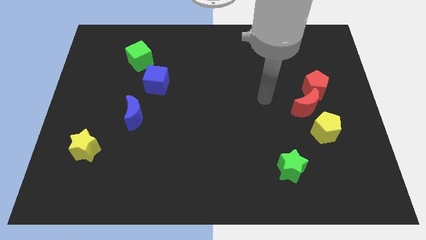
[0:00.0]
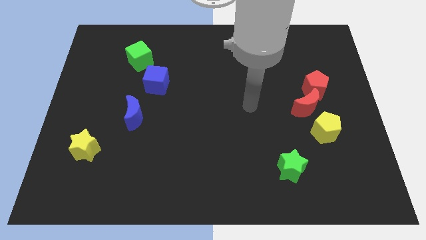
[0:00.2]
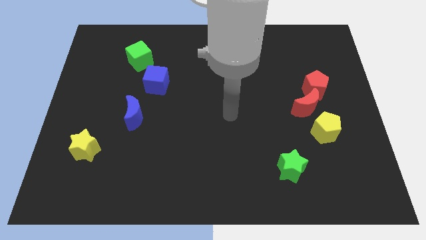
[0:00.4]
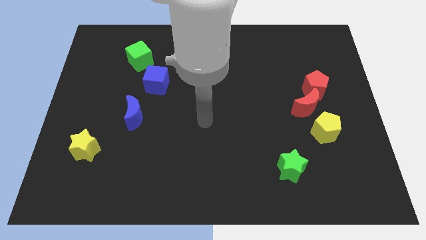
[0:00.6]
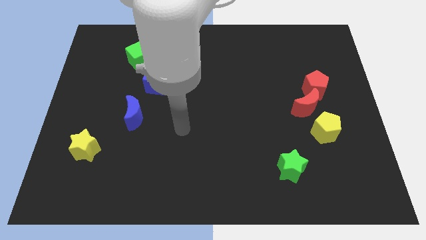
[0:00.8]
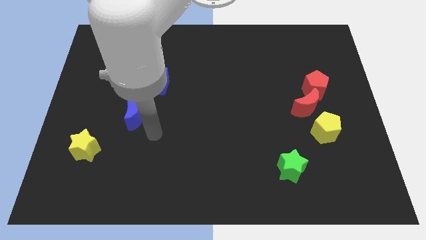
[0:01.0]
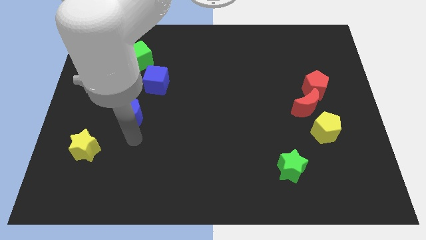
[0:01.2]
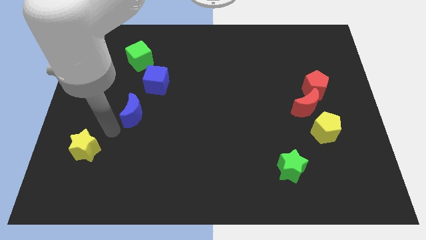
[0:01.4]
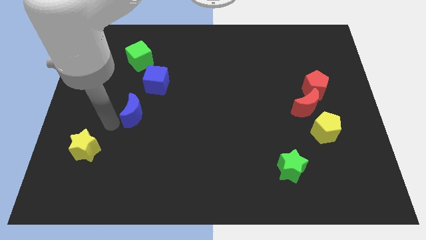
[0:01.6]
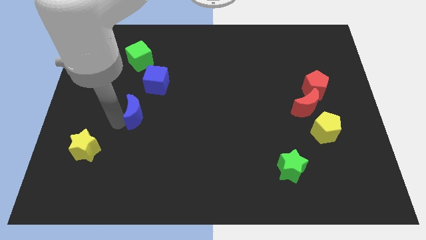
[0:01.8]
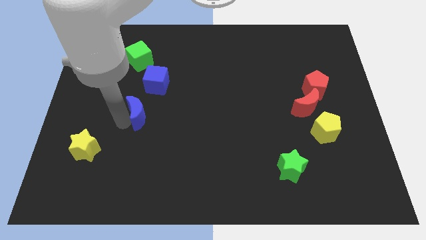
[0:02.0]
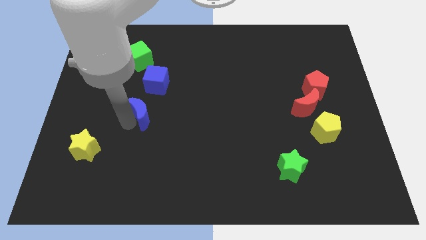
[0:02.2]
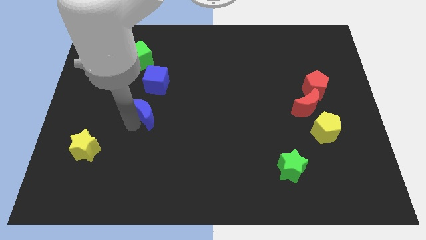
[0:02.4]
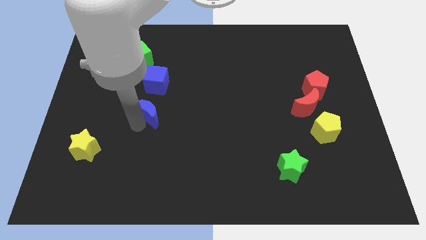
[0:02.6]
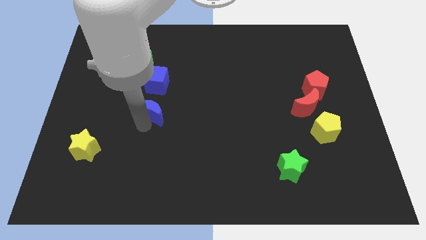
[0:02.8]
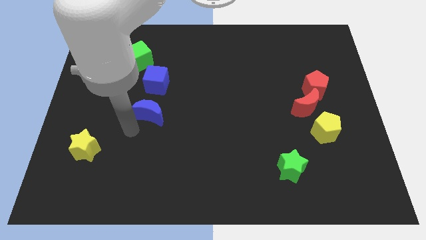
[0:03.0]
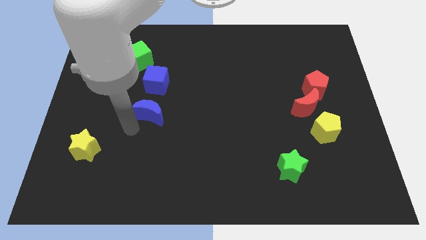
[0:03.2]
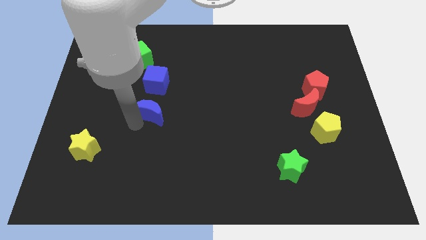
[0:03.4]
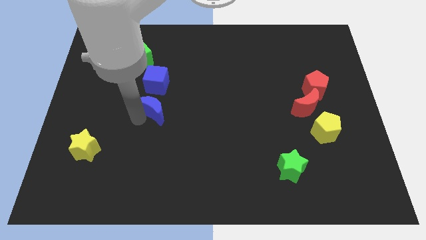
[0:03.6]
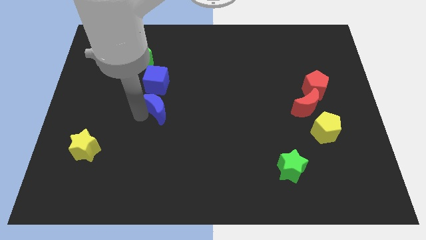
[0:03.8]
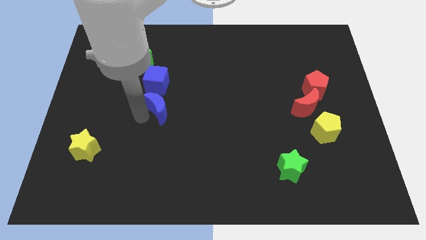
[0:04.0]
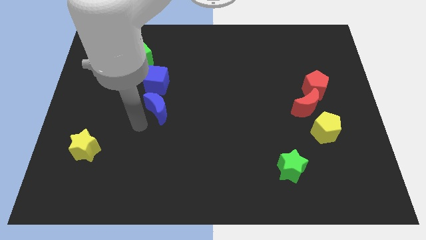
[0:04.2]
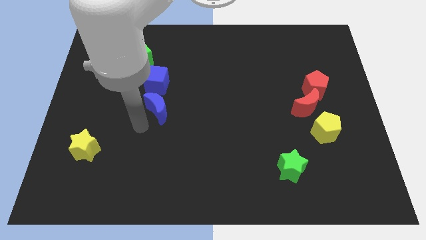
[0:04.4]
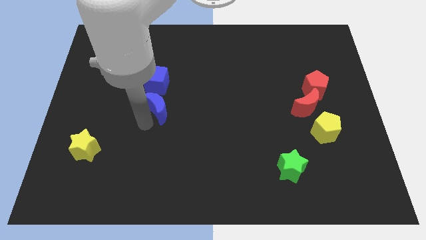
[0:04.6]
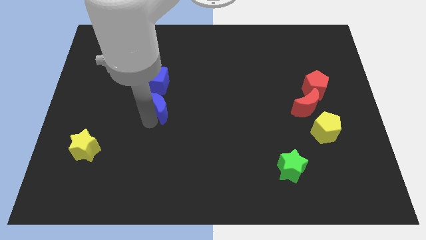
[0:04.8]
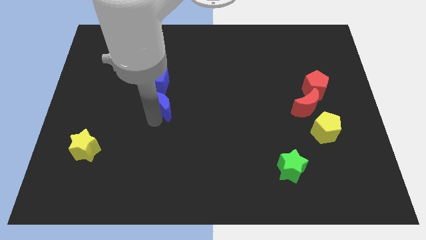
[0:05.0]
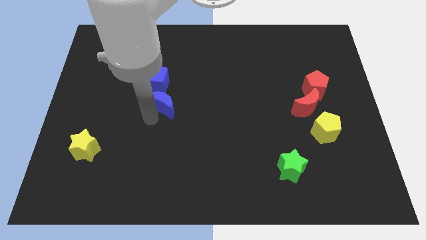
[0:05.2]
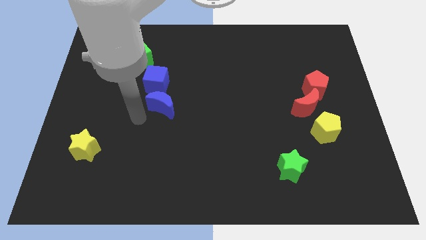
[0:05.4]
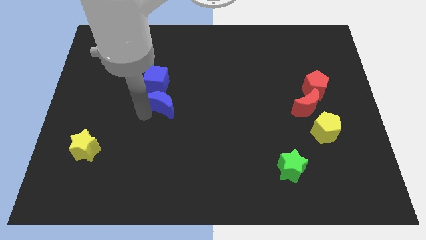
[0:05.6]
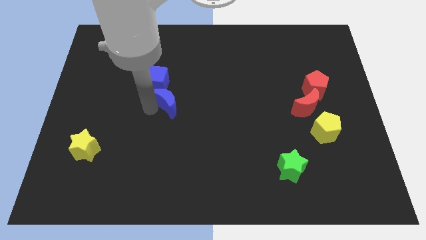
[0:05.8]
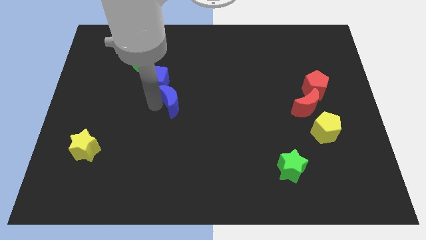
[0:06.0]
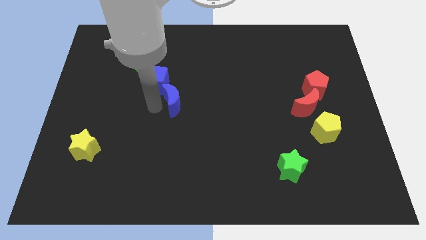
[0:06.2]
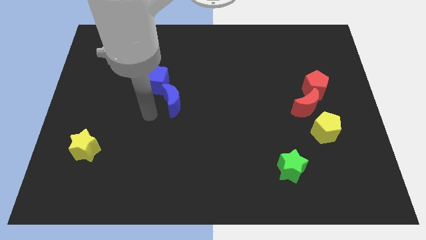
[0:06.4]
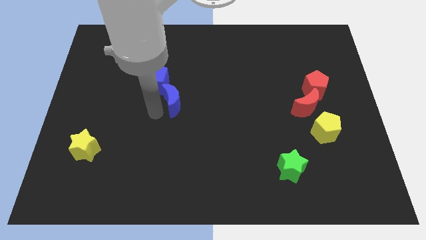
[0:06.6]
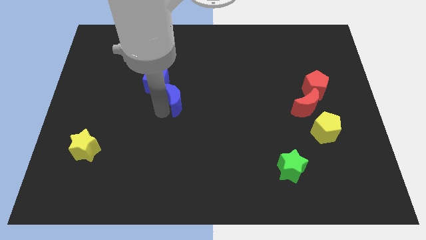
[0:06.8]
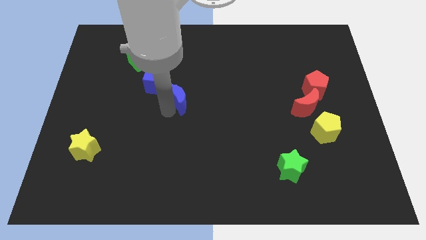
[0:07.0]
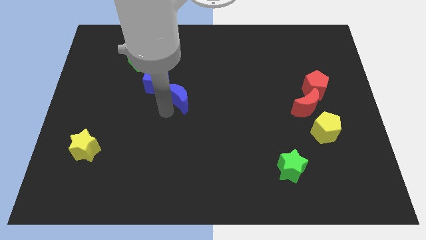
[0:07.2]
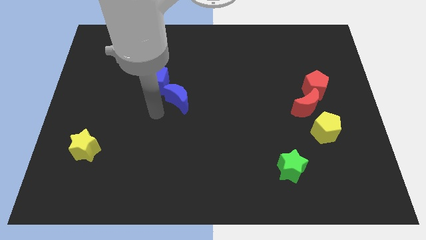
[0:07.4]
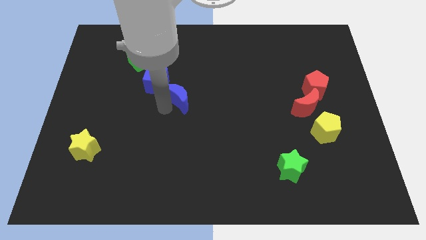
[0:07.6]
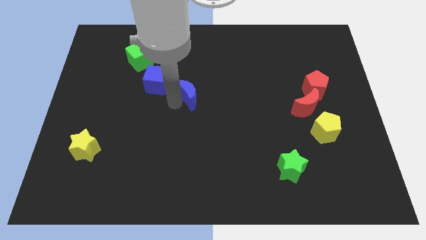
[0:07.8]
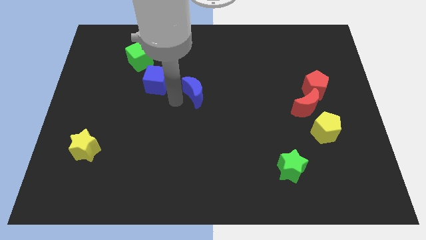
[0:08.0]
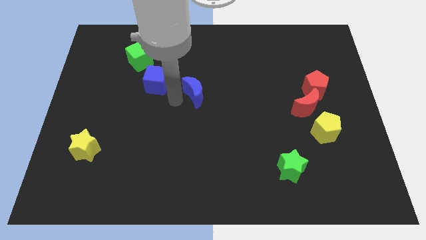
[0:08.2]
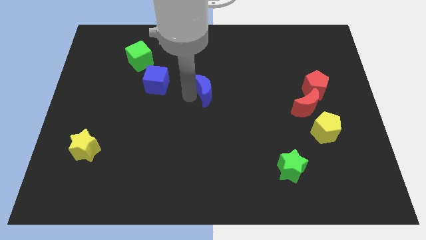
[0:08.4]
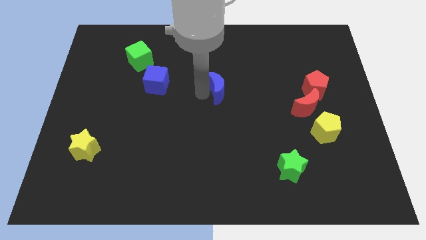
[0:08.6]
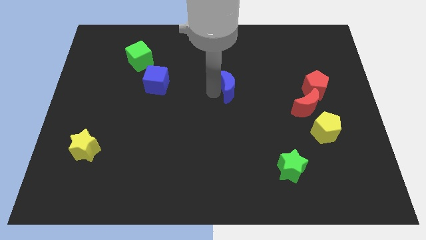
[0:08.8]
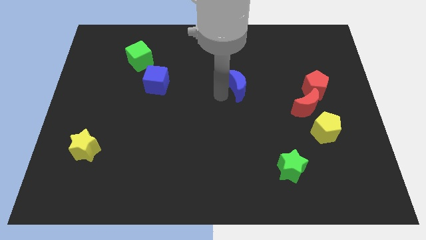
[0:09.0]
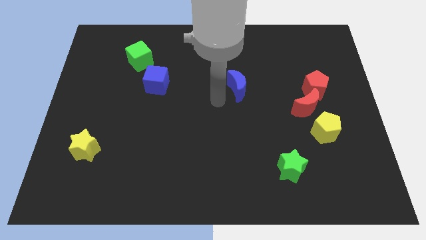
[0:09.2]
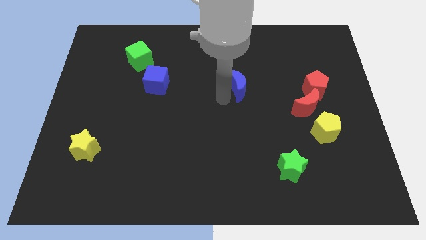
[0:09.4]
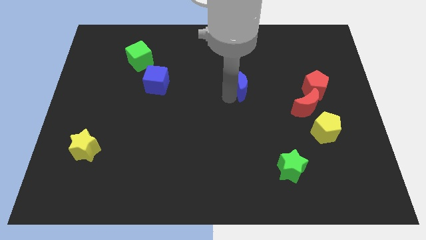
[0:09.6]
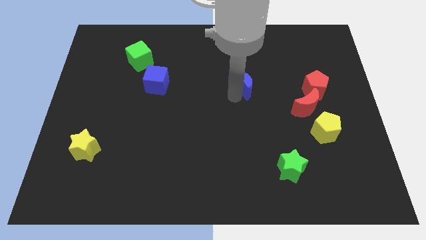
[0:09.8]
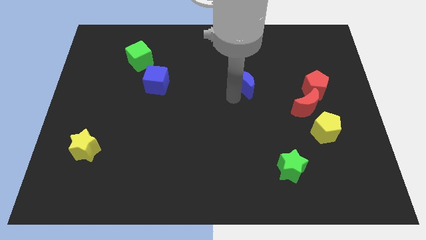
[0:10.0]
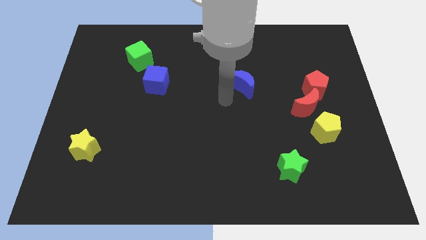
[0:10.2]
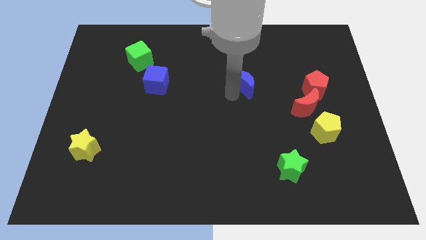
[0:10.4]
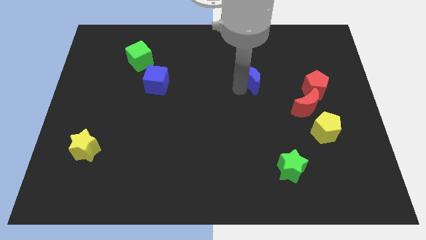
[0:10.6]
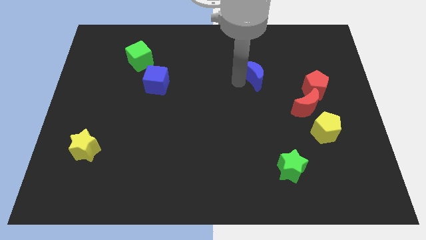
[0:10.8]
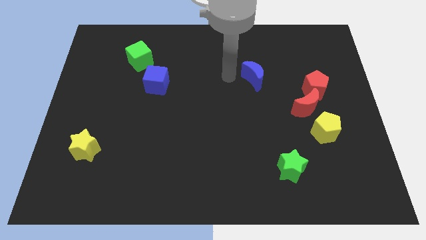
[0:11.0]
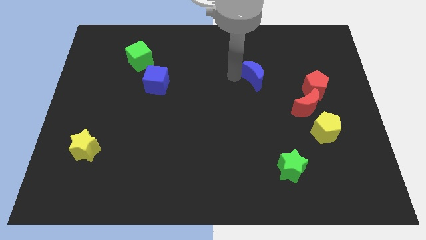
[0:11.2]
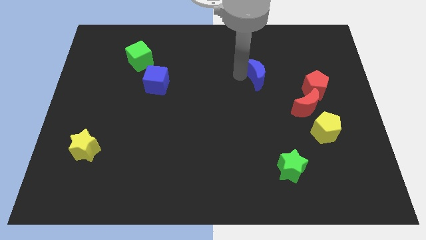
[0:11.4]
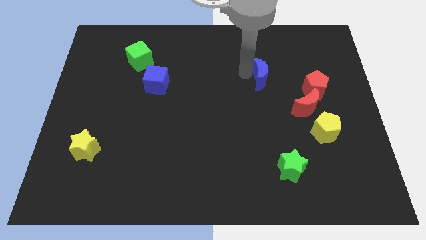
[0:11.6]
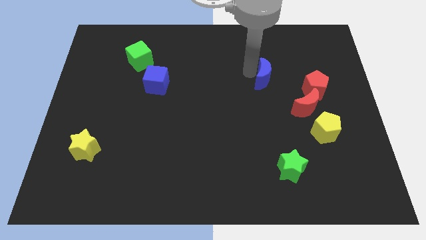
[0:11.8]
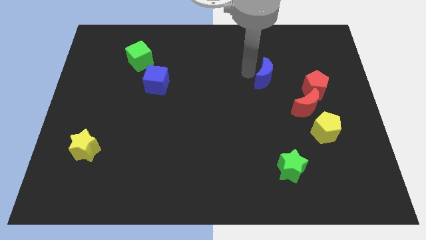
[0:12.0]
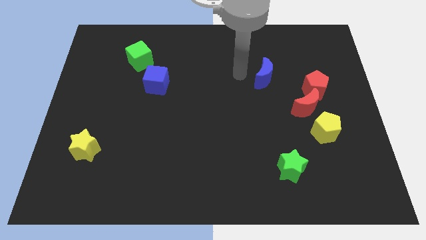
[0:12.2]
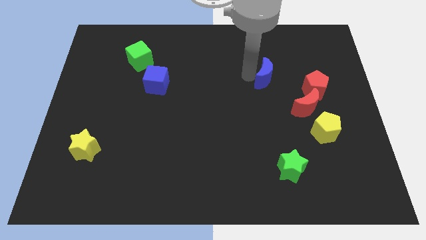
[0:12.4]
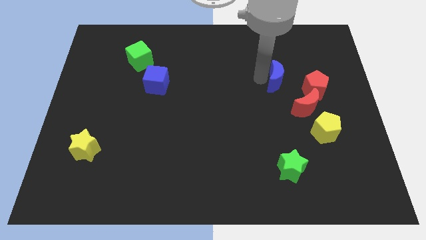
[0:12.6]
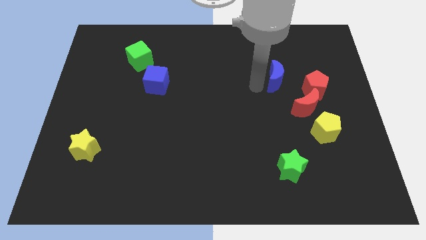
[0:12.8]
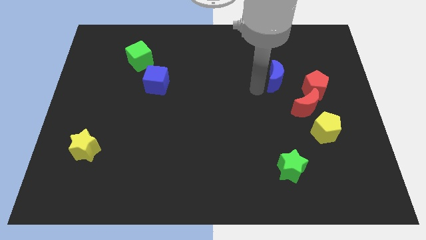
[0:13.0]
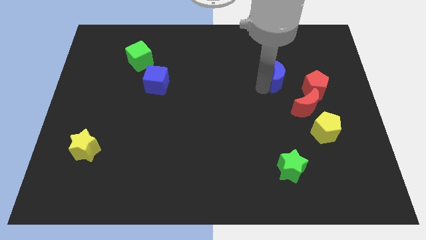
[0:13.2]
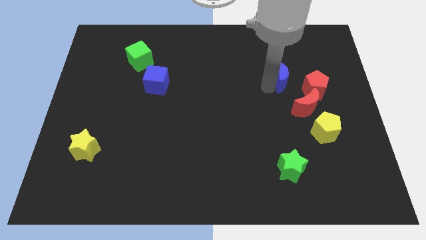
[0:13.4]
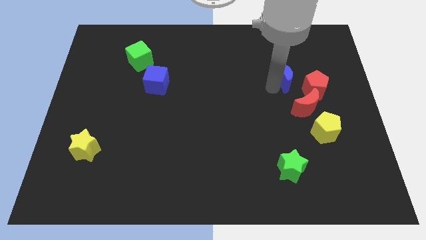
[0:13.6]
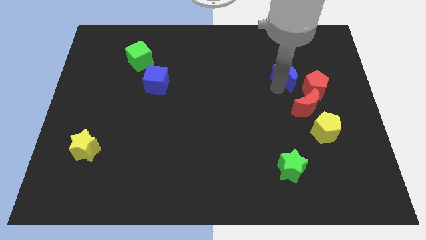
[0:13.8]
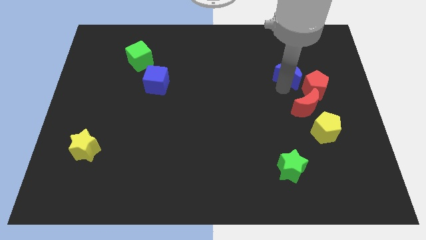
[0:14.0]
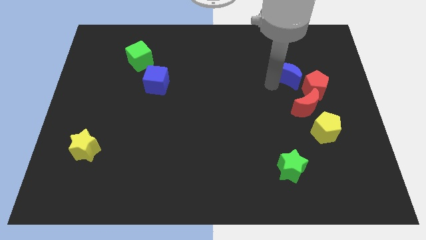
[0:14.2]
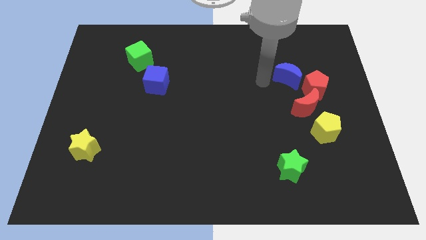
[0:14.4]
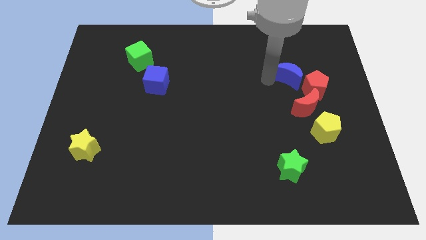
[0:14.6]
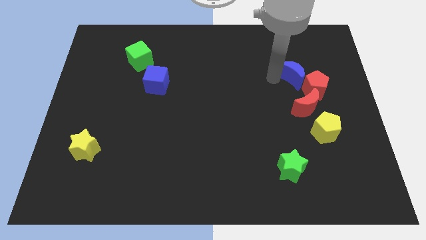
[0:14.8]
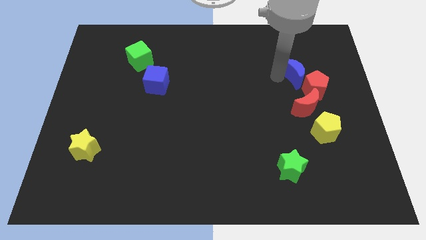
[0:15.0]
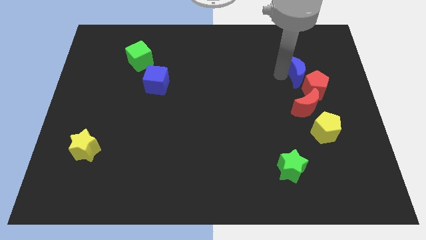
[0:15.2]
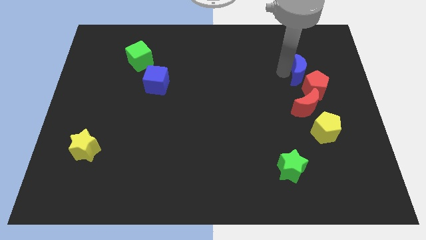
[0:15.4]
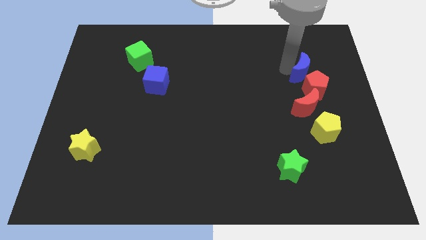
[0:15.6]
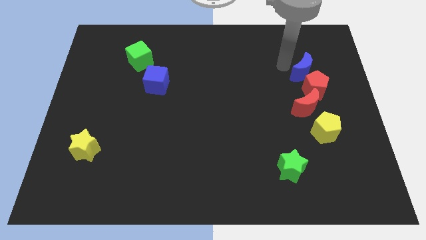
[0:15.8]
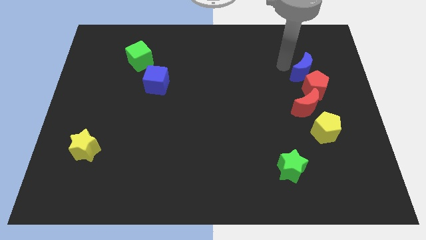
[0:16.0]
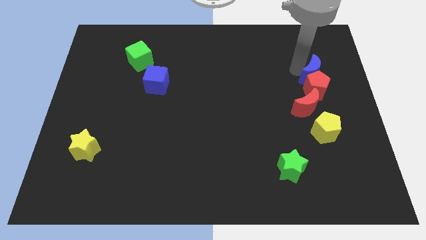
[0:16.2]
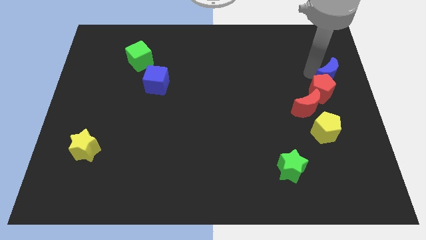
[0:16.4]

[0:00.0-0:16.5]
move the blue moon to the right side
